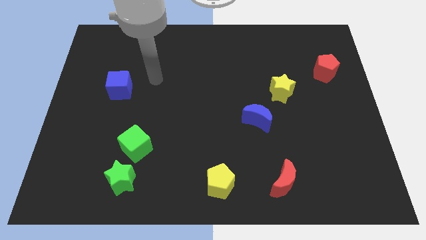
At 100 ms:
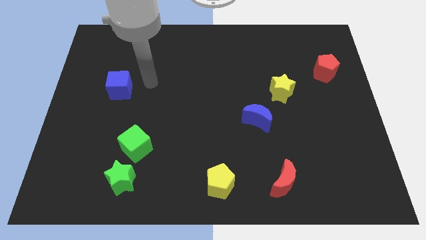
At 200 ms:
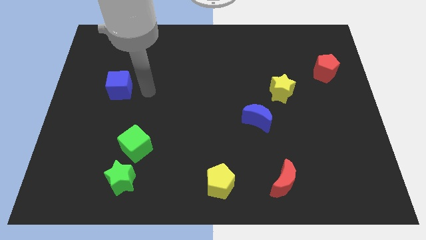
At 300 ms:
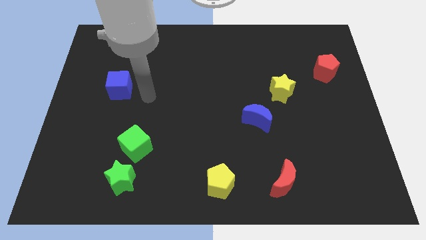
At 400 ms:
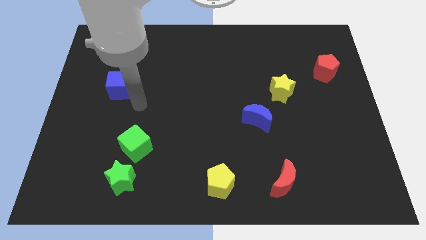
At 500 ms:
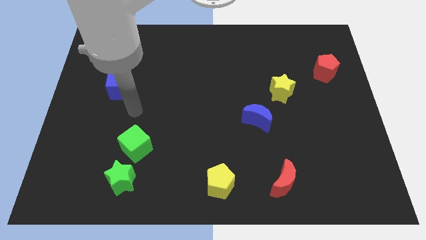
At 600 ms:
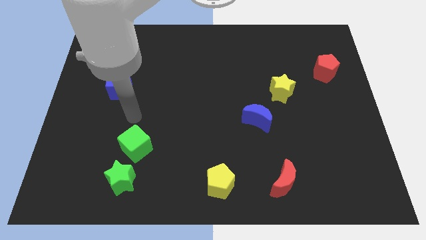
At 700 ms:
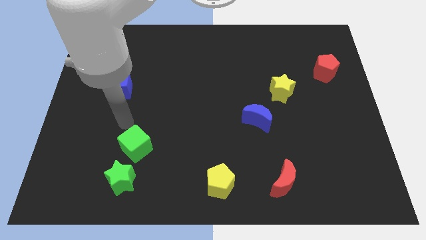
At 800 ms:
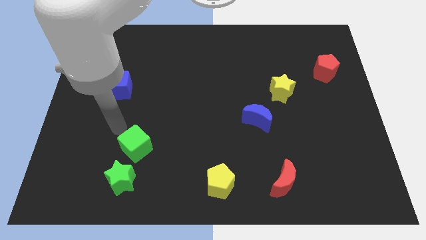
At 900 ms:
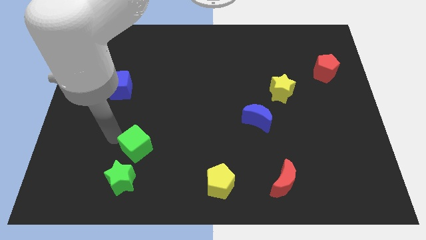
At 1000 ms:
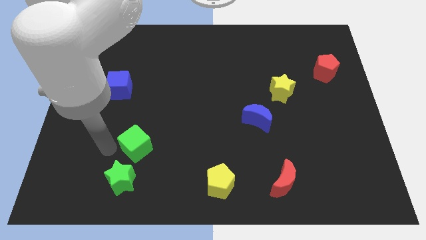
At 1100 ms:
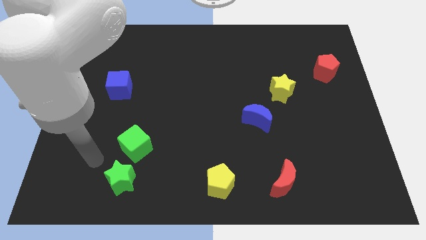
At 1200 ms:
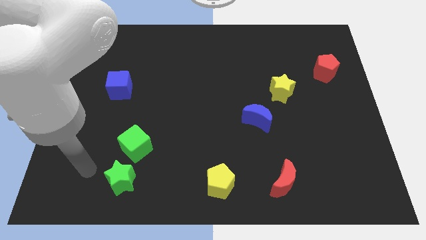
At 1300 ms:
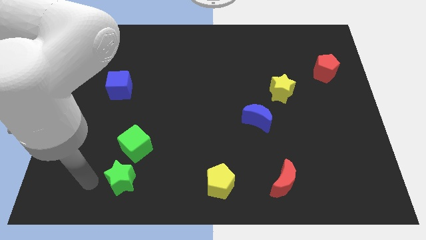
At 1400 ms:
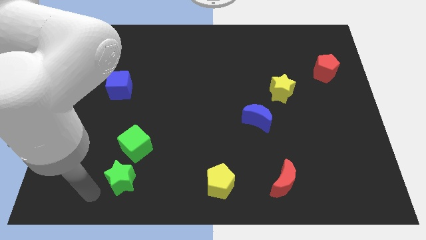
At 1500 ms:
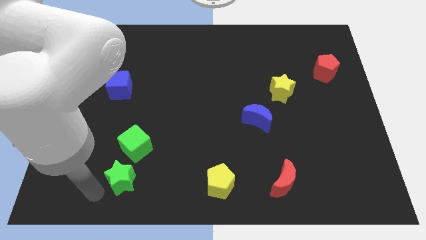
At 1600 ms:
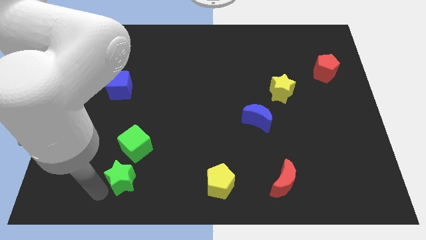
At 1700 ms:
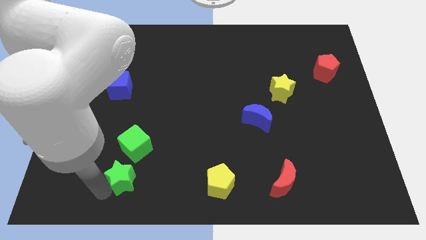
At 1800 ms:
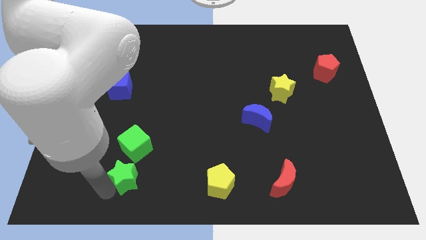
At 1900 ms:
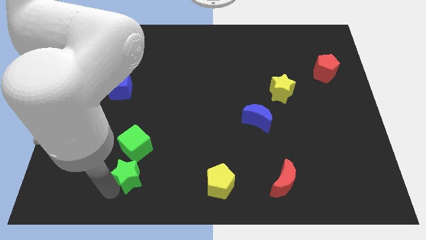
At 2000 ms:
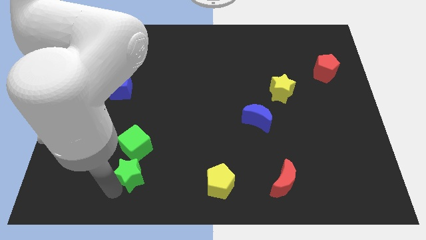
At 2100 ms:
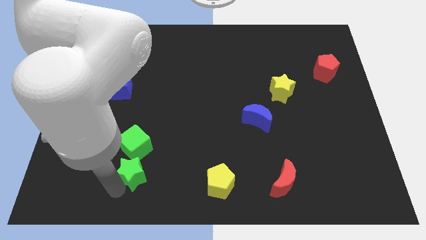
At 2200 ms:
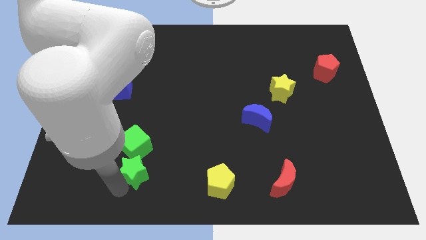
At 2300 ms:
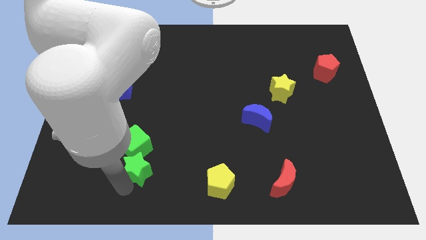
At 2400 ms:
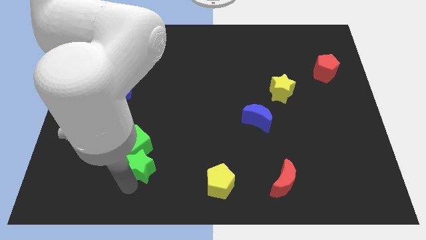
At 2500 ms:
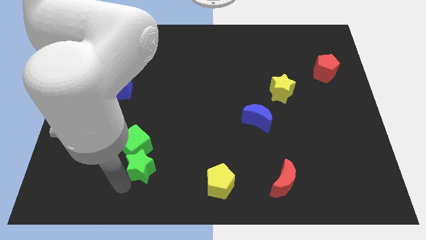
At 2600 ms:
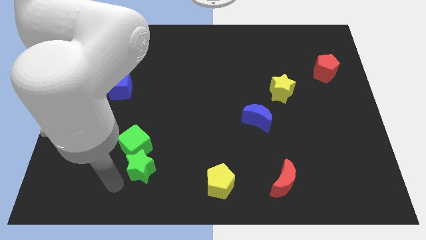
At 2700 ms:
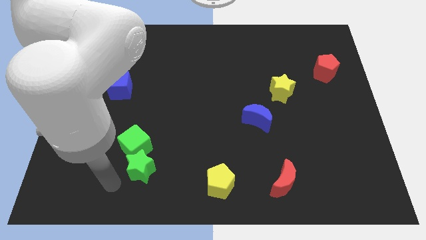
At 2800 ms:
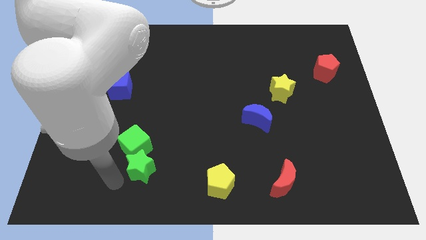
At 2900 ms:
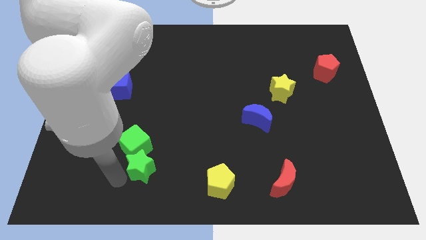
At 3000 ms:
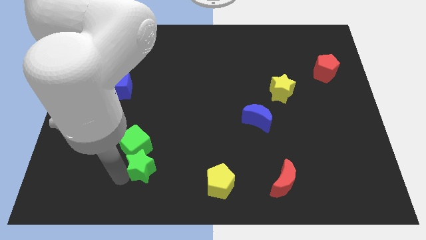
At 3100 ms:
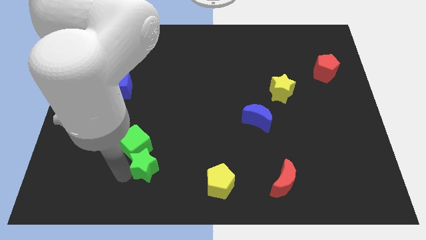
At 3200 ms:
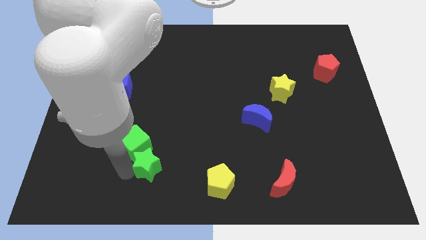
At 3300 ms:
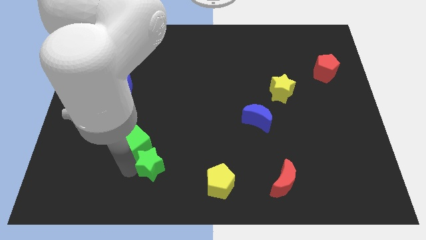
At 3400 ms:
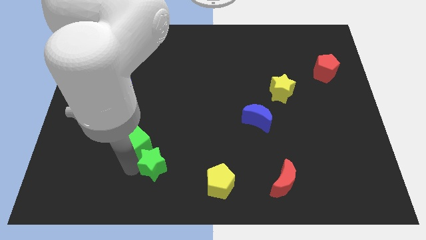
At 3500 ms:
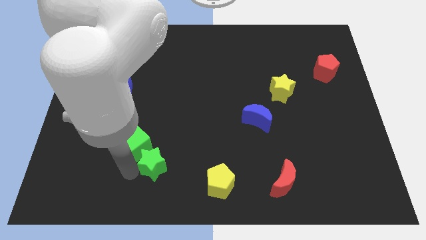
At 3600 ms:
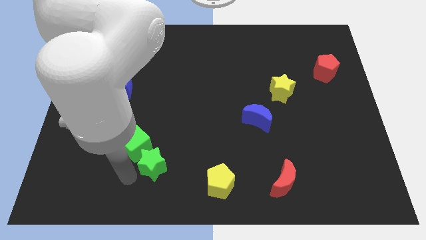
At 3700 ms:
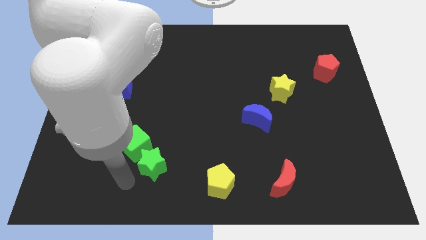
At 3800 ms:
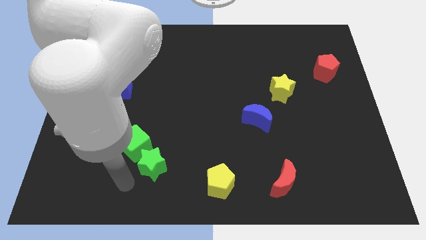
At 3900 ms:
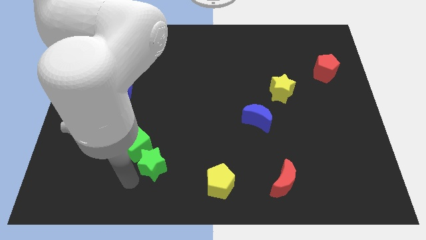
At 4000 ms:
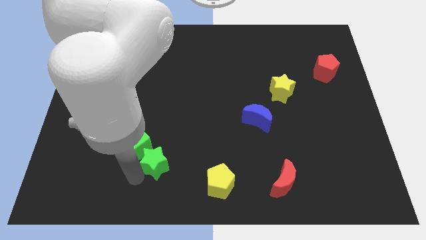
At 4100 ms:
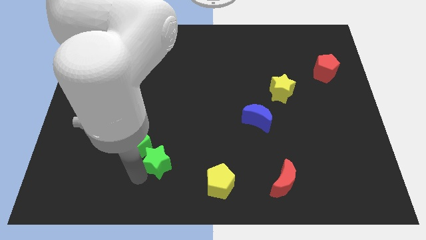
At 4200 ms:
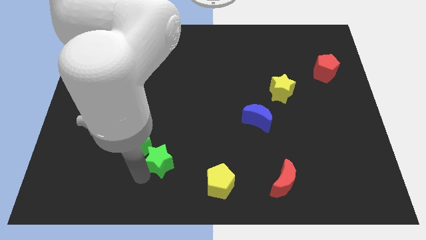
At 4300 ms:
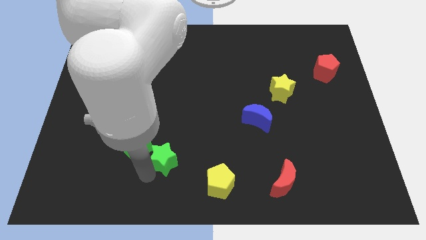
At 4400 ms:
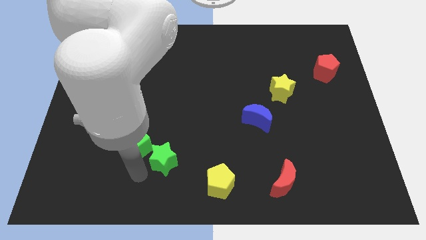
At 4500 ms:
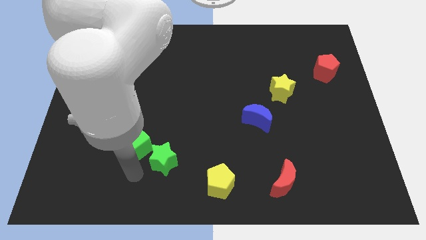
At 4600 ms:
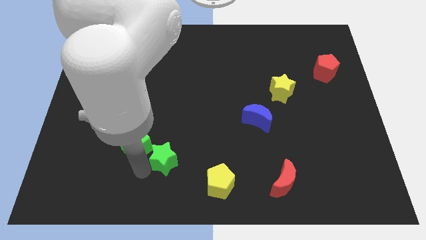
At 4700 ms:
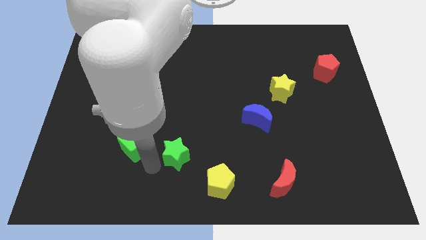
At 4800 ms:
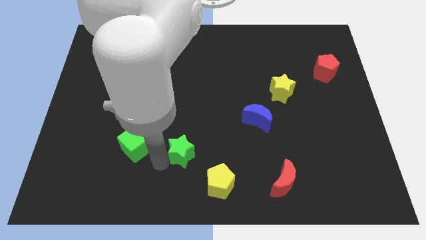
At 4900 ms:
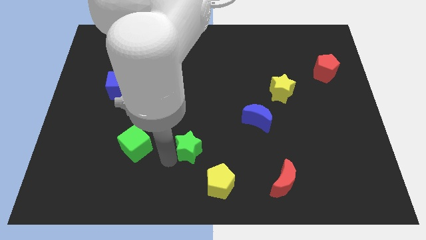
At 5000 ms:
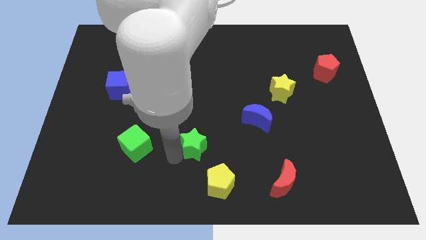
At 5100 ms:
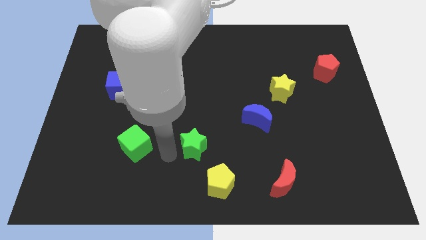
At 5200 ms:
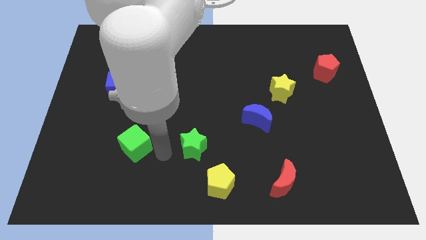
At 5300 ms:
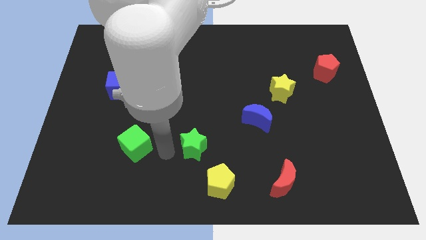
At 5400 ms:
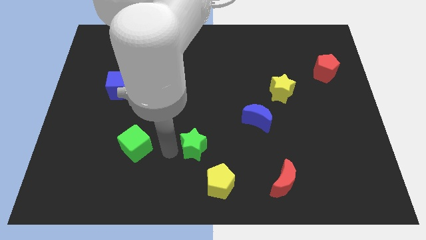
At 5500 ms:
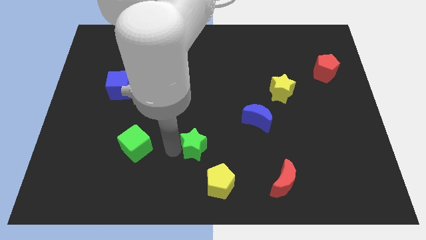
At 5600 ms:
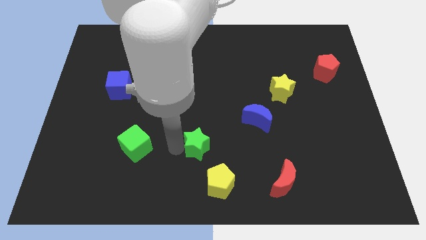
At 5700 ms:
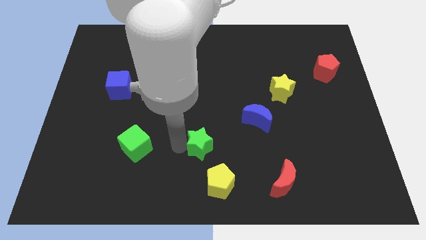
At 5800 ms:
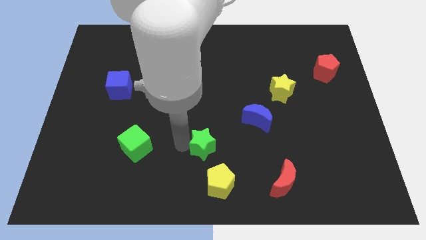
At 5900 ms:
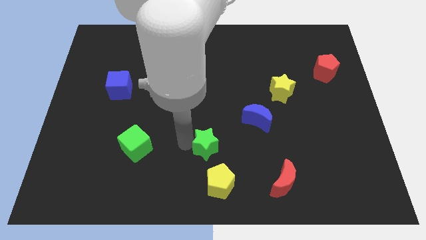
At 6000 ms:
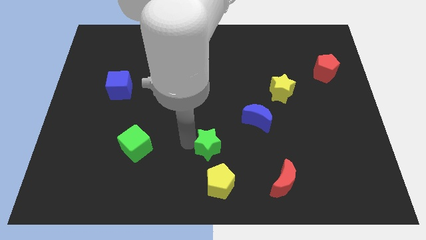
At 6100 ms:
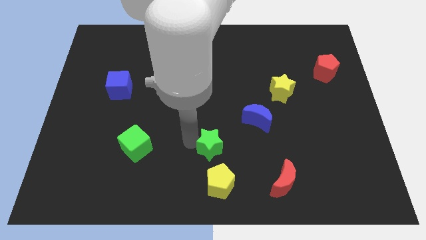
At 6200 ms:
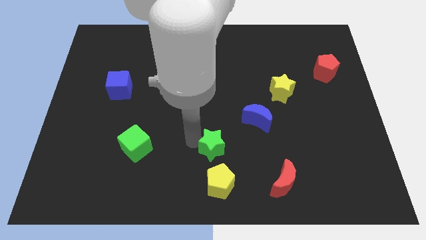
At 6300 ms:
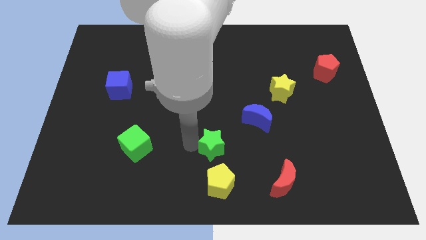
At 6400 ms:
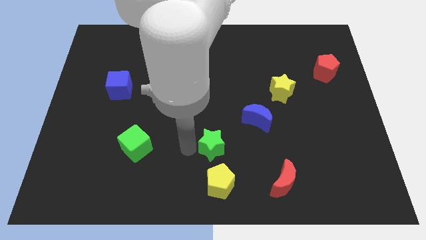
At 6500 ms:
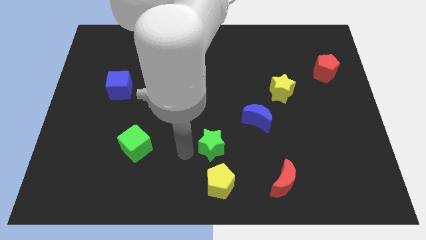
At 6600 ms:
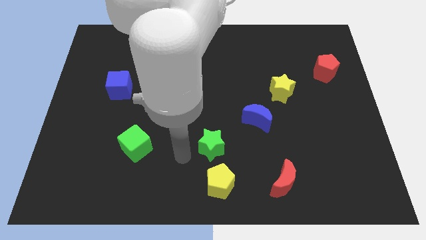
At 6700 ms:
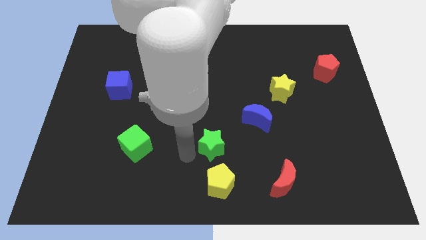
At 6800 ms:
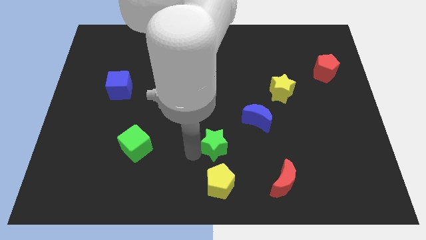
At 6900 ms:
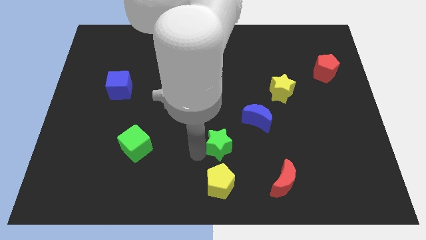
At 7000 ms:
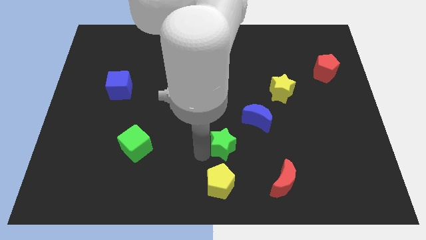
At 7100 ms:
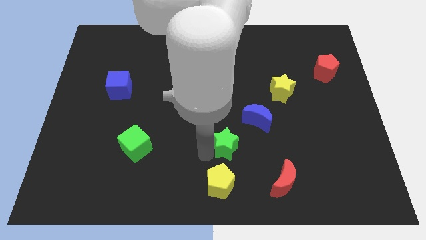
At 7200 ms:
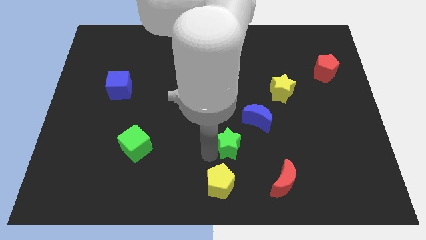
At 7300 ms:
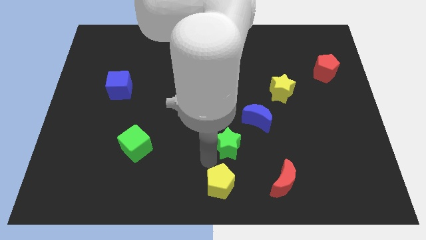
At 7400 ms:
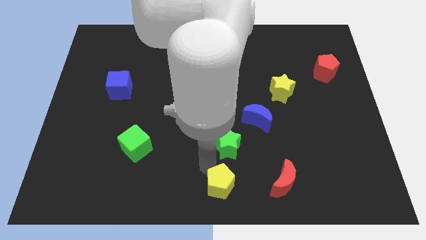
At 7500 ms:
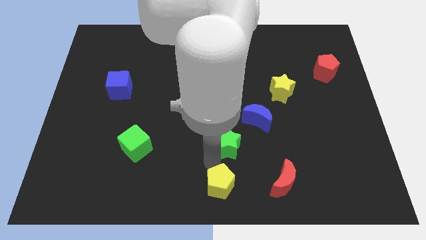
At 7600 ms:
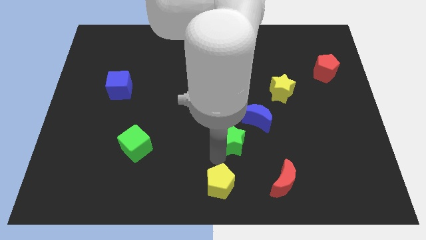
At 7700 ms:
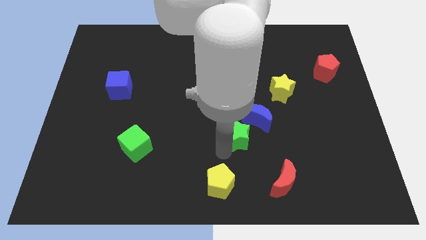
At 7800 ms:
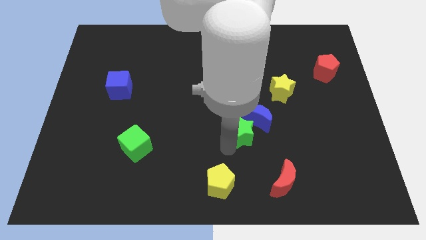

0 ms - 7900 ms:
move the green star next to the blue moon
